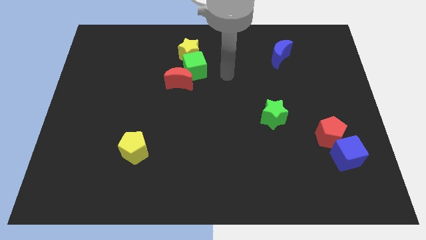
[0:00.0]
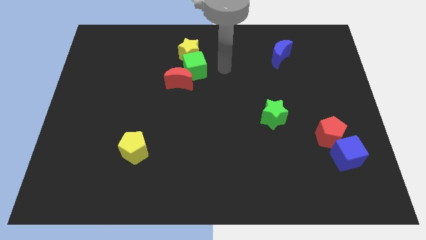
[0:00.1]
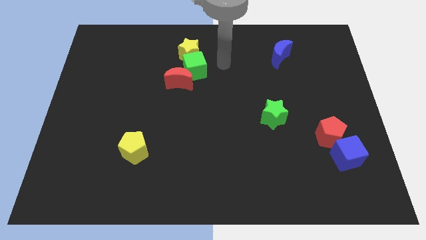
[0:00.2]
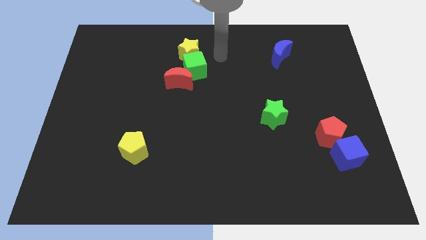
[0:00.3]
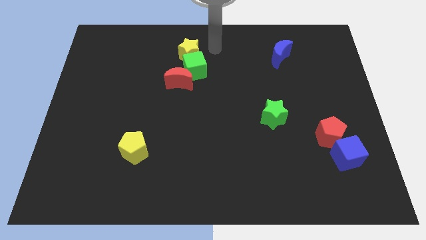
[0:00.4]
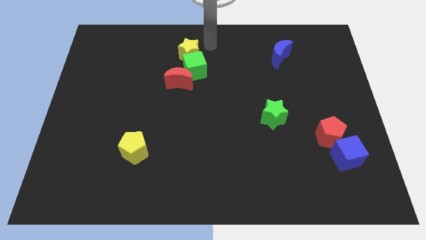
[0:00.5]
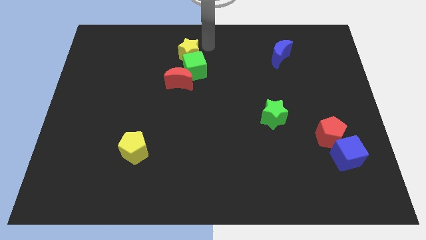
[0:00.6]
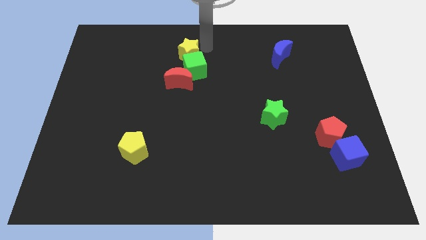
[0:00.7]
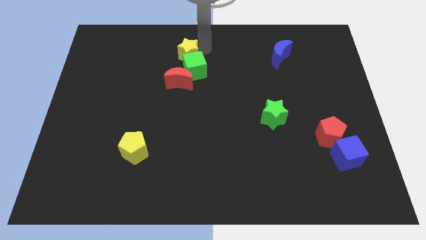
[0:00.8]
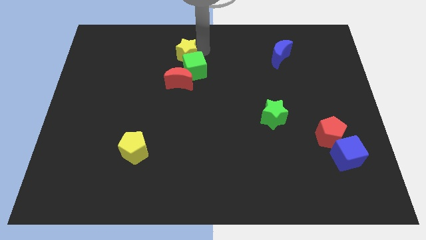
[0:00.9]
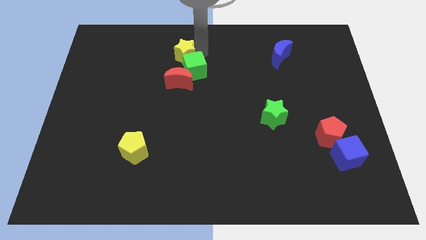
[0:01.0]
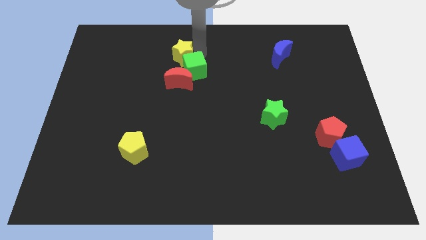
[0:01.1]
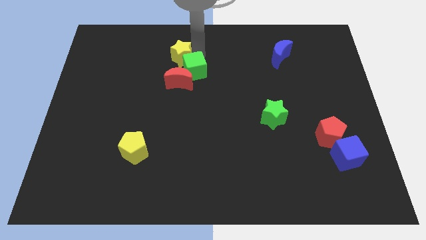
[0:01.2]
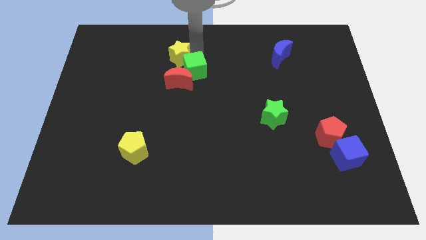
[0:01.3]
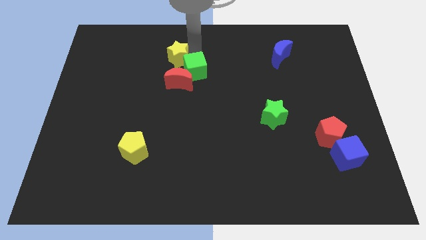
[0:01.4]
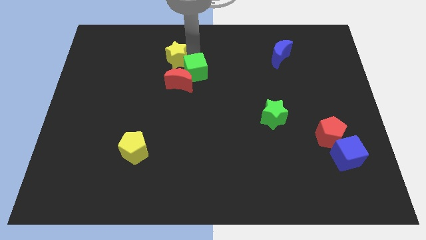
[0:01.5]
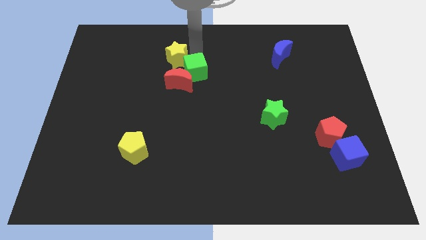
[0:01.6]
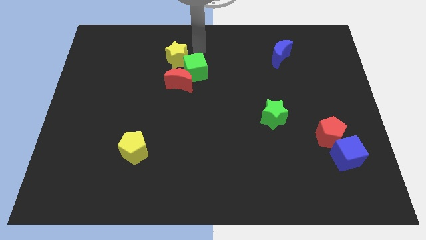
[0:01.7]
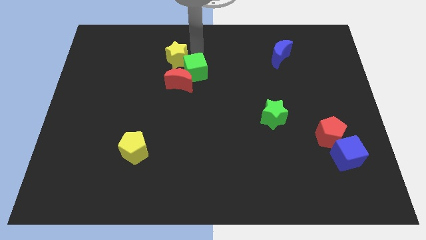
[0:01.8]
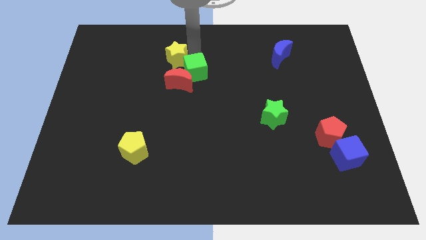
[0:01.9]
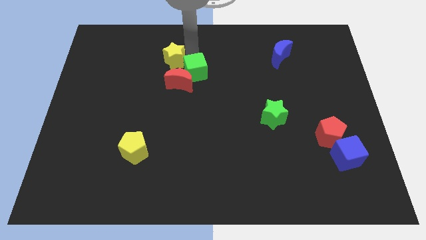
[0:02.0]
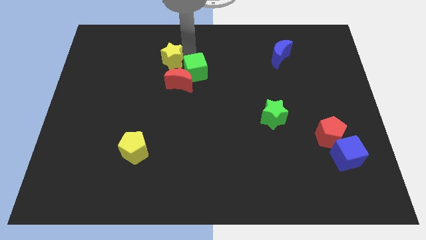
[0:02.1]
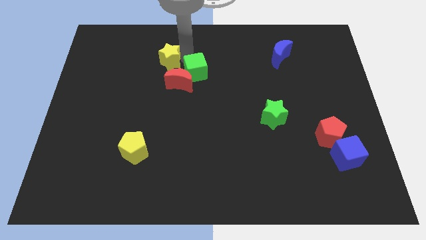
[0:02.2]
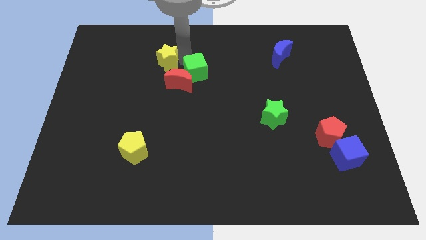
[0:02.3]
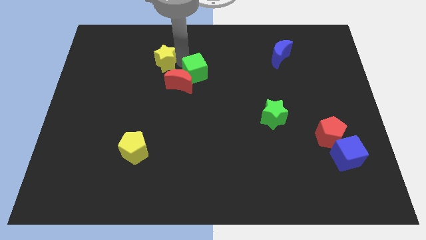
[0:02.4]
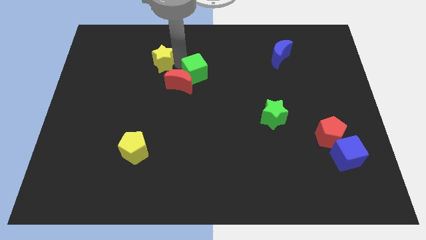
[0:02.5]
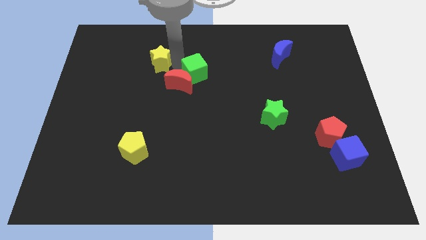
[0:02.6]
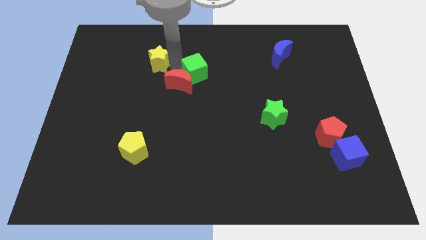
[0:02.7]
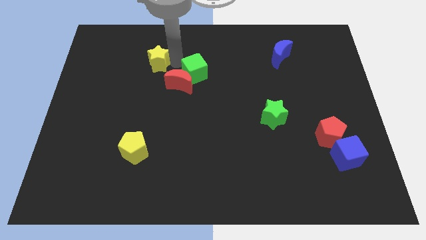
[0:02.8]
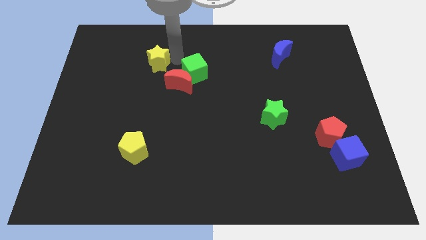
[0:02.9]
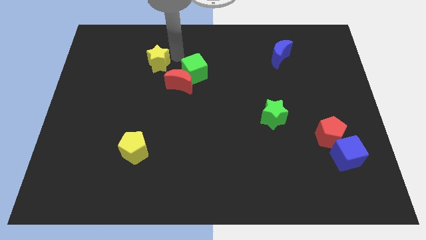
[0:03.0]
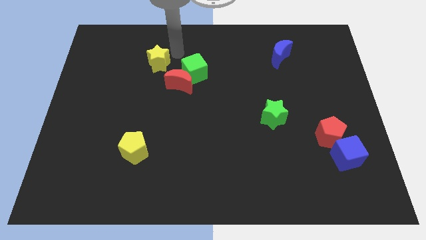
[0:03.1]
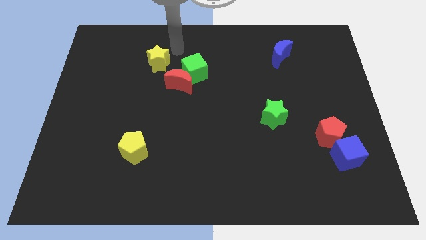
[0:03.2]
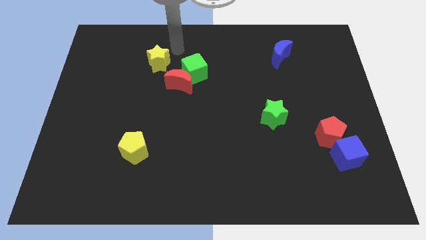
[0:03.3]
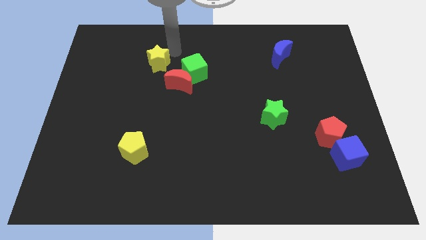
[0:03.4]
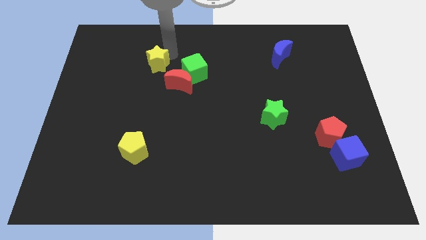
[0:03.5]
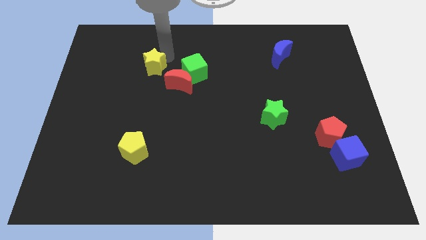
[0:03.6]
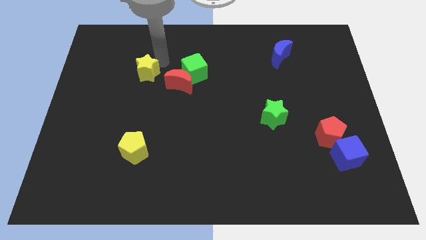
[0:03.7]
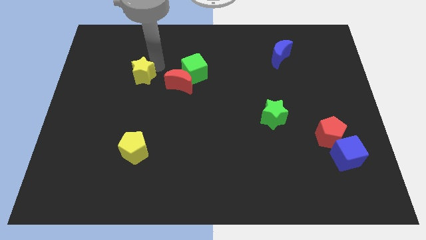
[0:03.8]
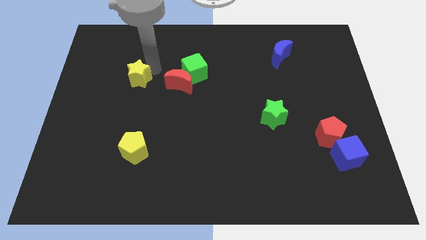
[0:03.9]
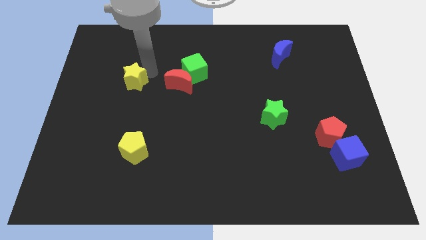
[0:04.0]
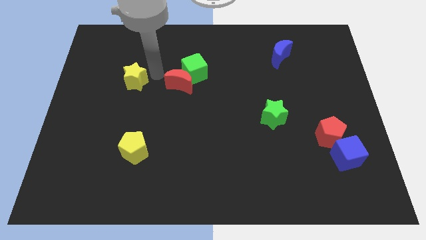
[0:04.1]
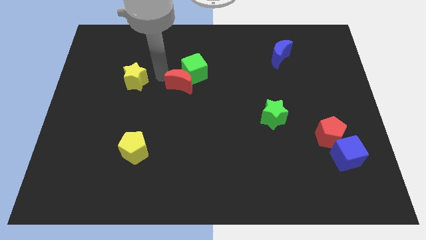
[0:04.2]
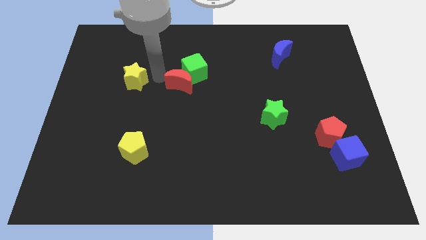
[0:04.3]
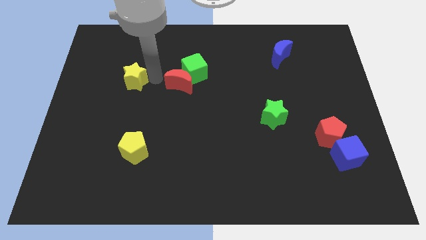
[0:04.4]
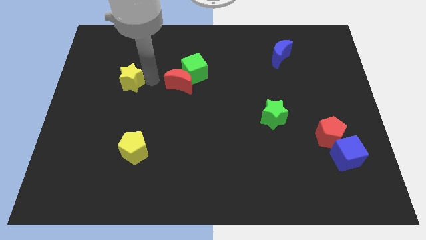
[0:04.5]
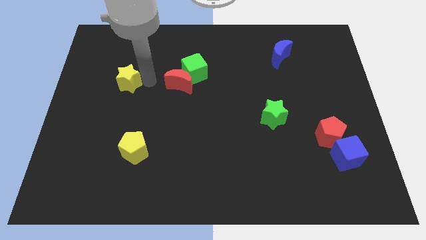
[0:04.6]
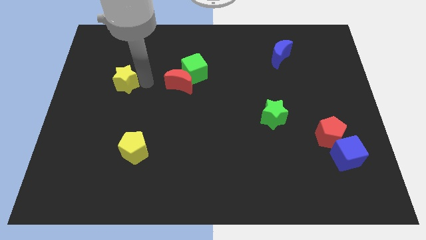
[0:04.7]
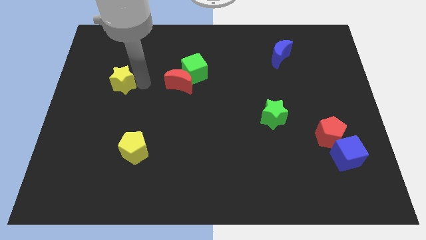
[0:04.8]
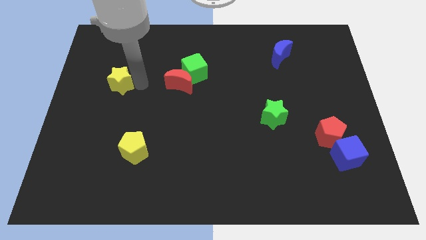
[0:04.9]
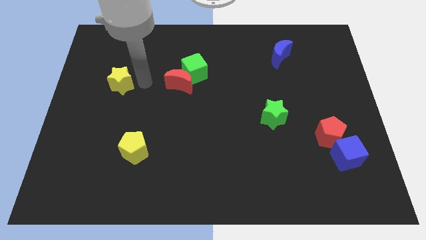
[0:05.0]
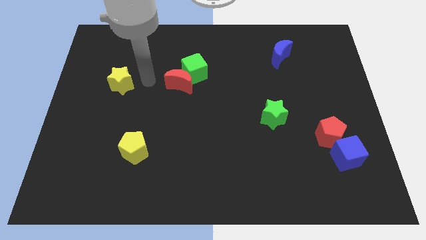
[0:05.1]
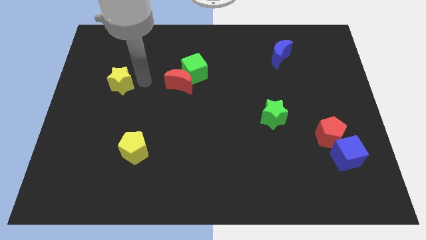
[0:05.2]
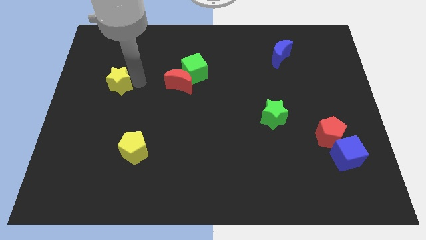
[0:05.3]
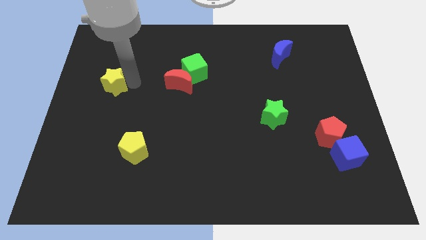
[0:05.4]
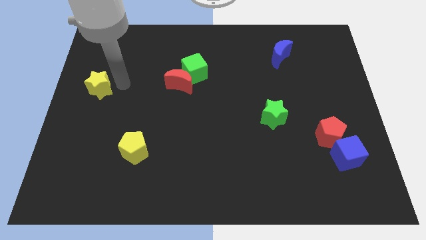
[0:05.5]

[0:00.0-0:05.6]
move the yellow star to the left side of the board
